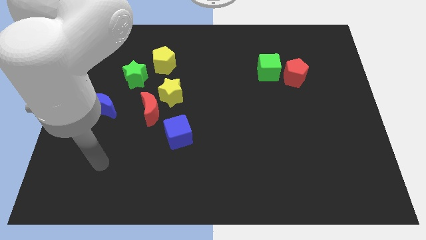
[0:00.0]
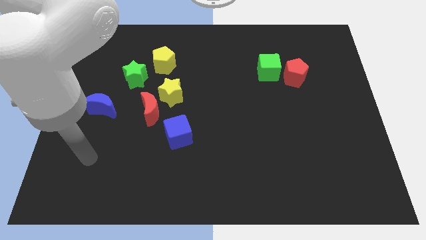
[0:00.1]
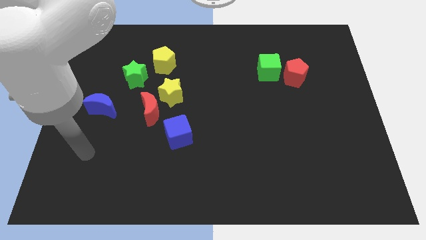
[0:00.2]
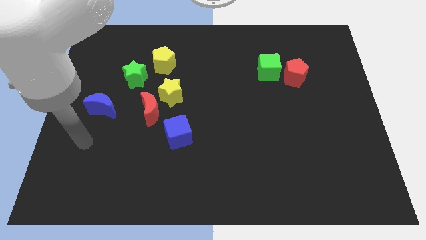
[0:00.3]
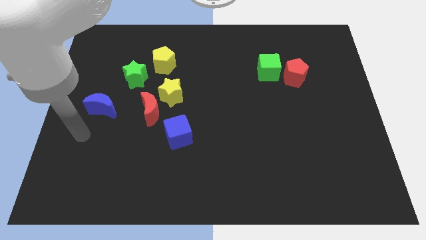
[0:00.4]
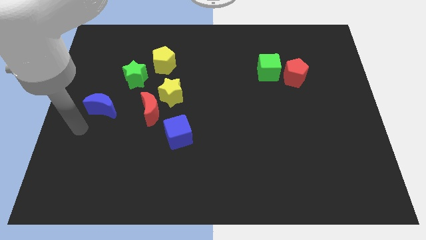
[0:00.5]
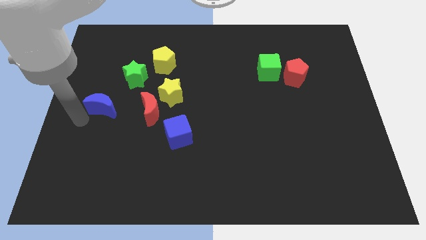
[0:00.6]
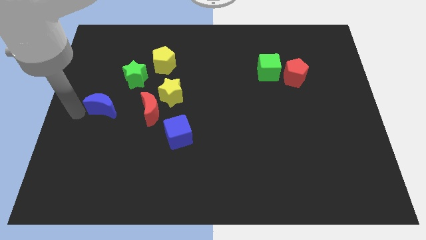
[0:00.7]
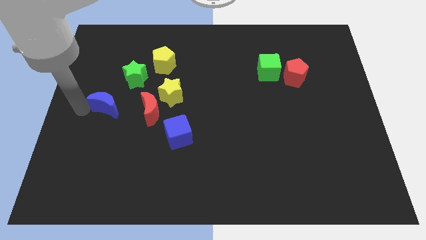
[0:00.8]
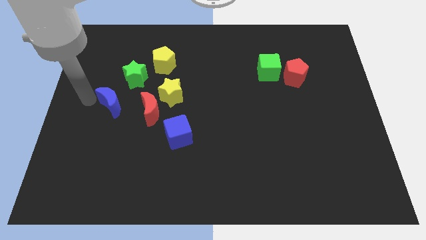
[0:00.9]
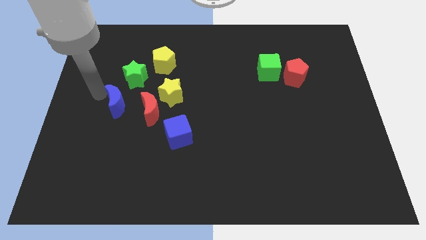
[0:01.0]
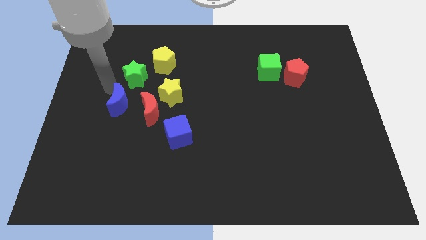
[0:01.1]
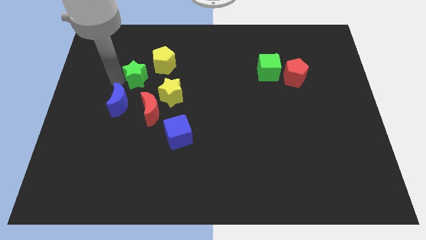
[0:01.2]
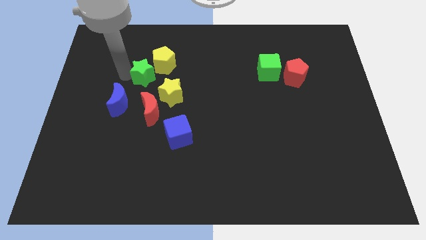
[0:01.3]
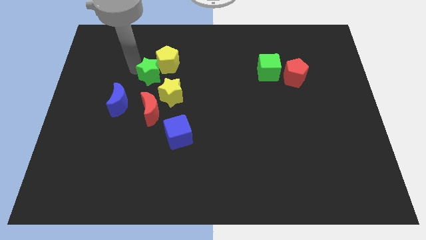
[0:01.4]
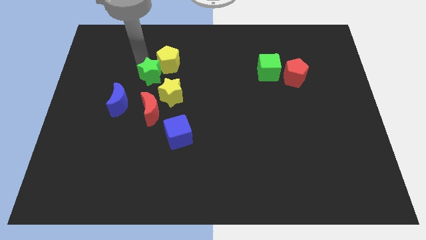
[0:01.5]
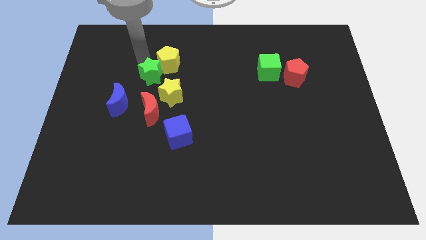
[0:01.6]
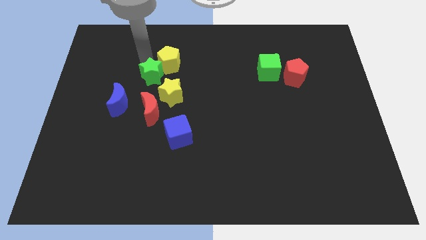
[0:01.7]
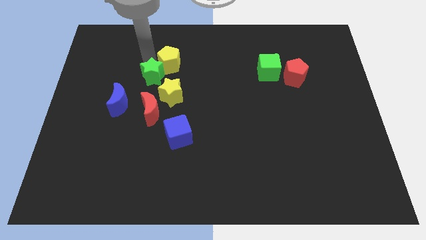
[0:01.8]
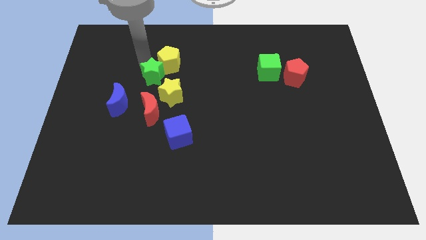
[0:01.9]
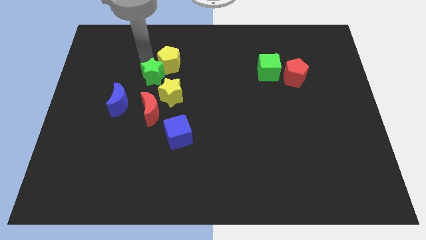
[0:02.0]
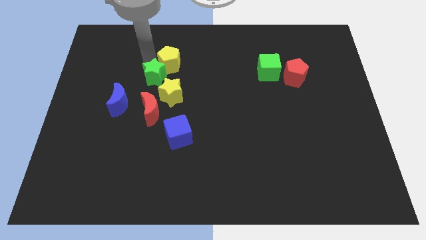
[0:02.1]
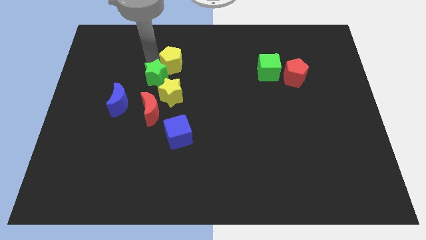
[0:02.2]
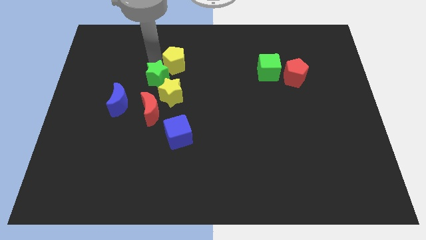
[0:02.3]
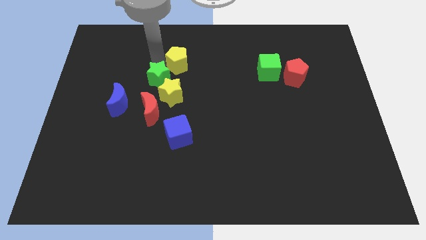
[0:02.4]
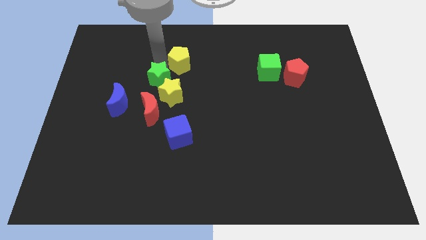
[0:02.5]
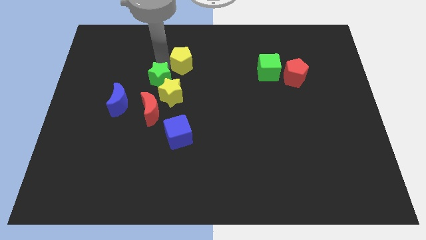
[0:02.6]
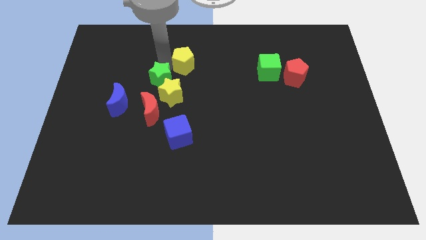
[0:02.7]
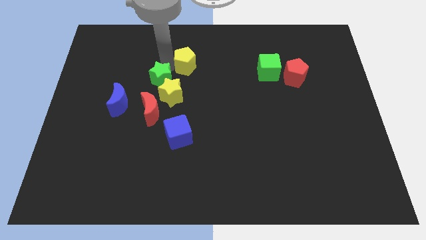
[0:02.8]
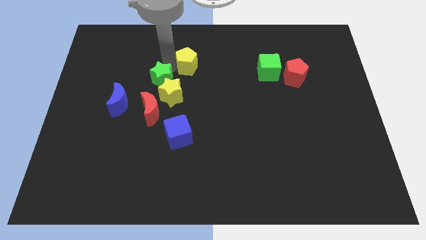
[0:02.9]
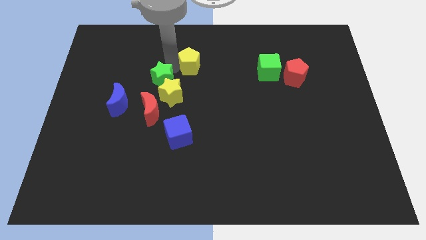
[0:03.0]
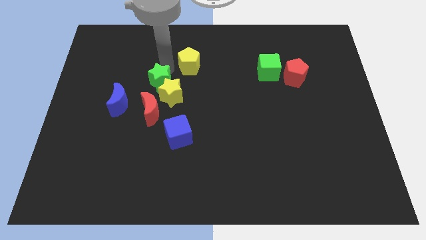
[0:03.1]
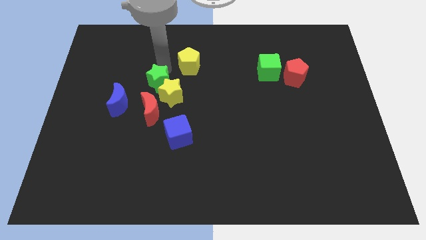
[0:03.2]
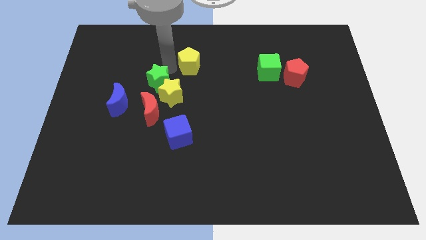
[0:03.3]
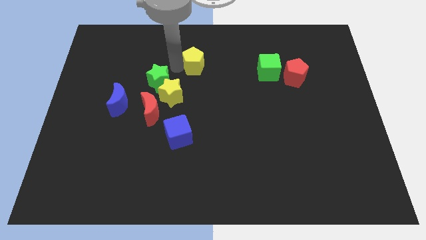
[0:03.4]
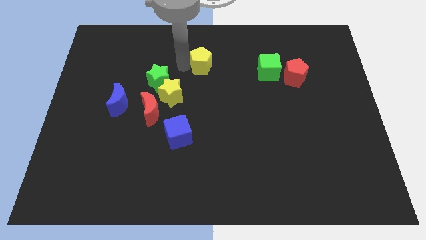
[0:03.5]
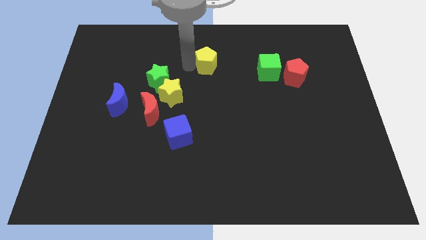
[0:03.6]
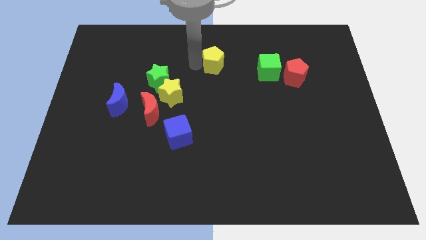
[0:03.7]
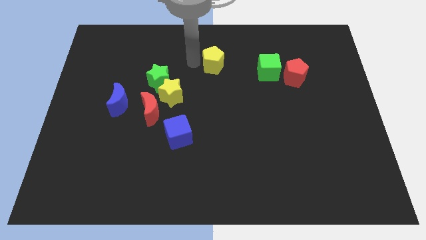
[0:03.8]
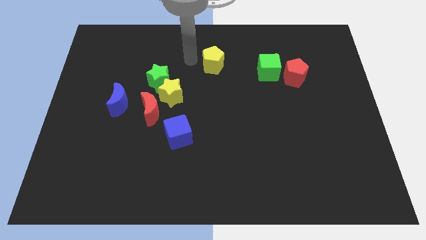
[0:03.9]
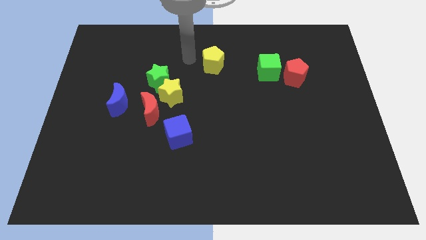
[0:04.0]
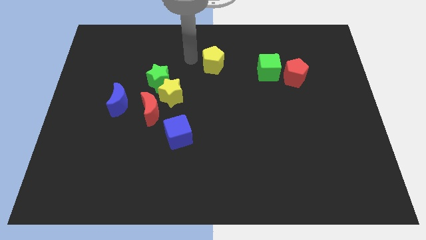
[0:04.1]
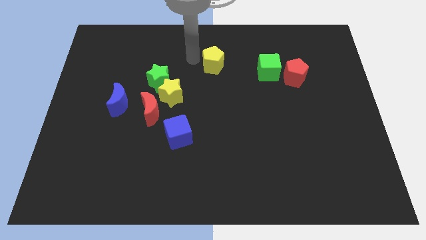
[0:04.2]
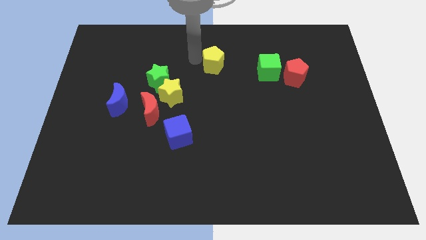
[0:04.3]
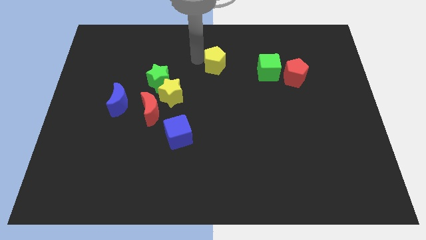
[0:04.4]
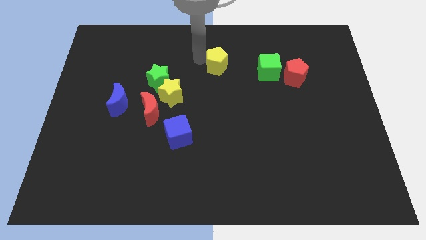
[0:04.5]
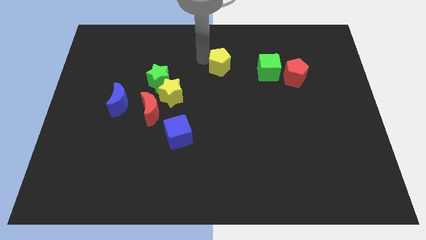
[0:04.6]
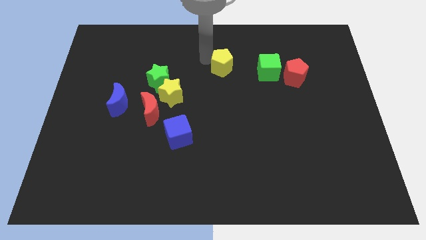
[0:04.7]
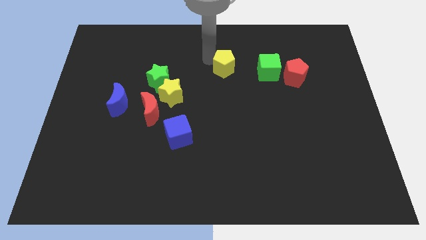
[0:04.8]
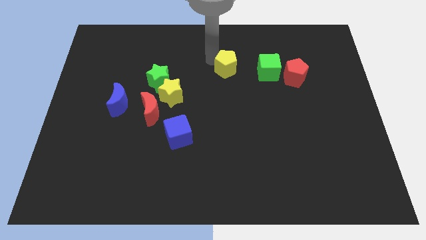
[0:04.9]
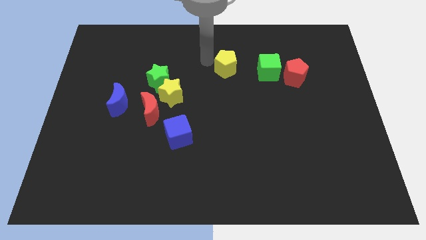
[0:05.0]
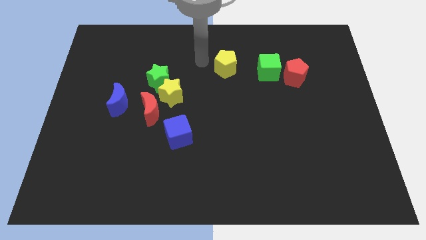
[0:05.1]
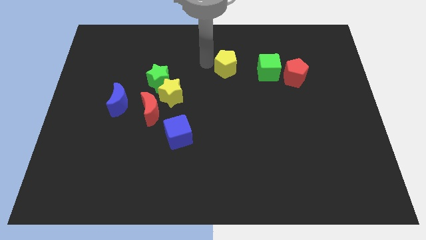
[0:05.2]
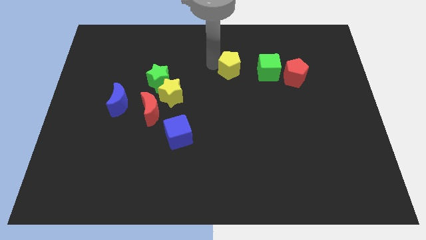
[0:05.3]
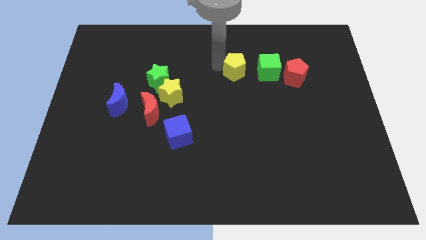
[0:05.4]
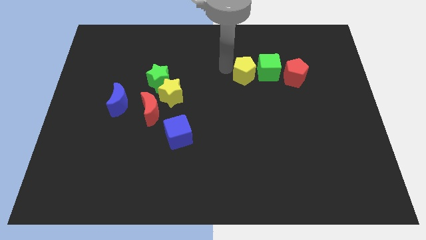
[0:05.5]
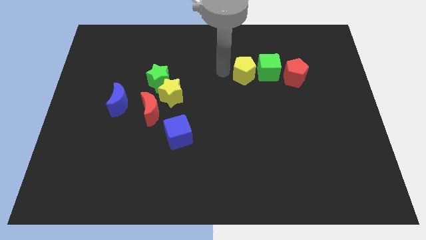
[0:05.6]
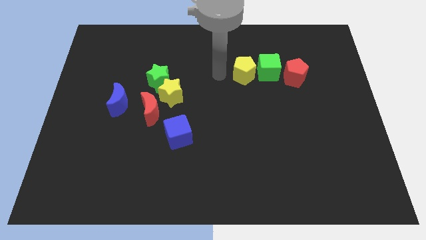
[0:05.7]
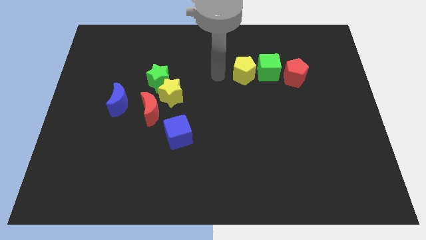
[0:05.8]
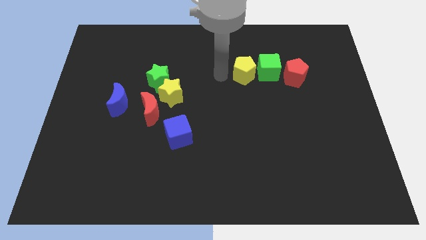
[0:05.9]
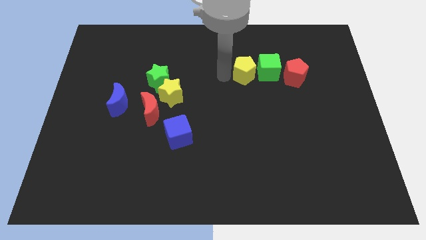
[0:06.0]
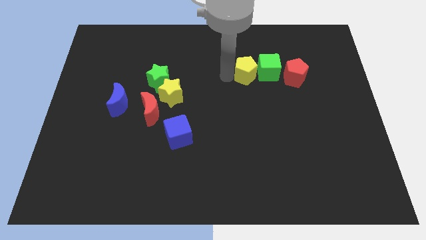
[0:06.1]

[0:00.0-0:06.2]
put the yellow pentagon next to the green cube

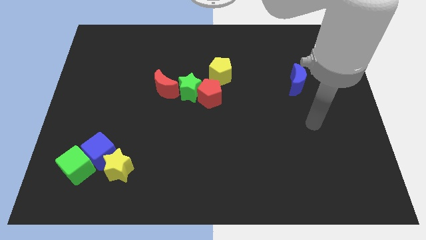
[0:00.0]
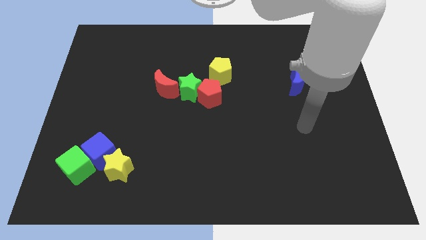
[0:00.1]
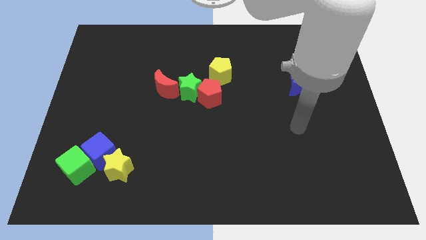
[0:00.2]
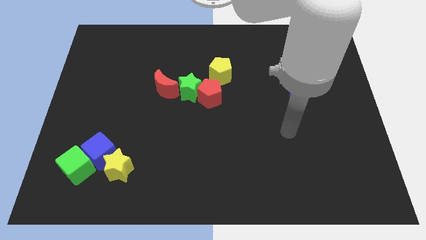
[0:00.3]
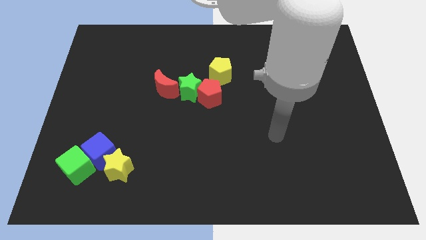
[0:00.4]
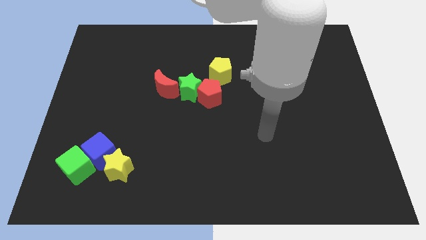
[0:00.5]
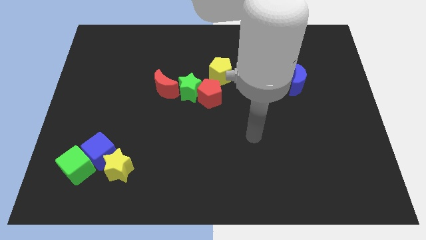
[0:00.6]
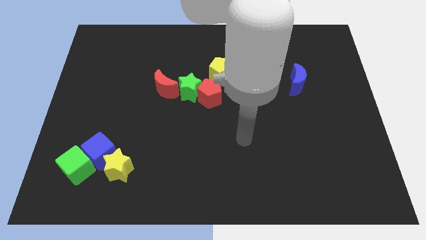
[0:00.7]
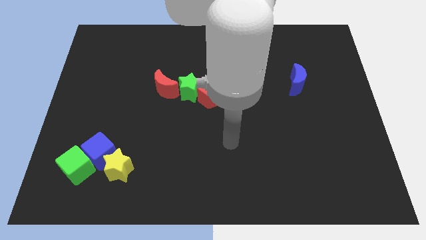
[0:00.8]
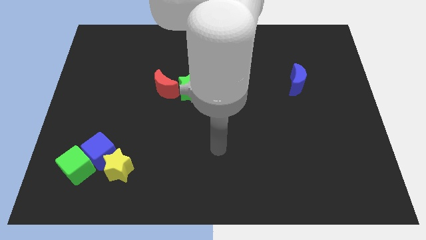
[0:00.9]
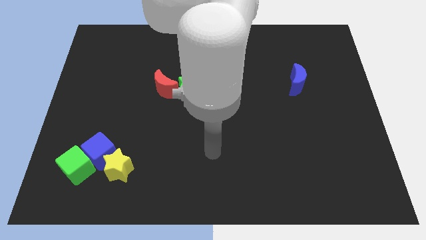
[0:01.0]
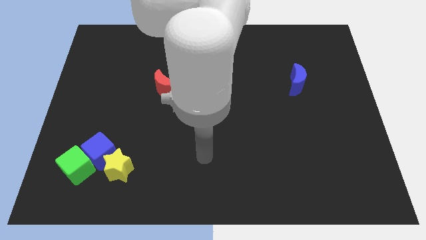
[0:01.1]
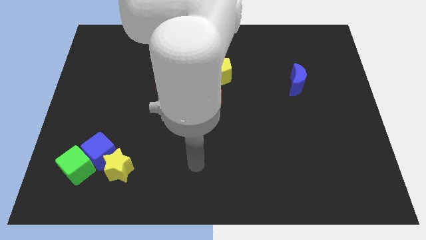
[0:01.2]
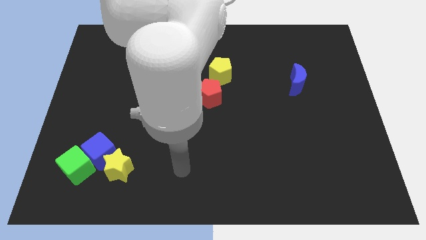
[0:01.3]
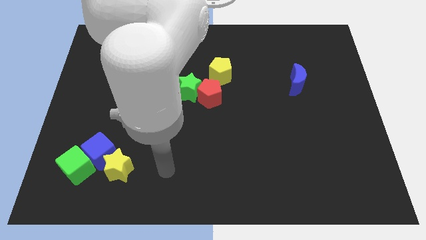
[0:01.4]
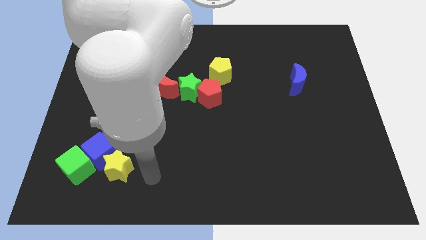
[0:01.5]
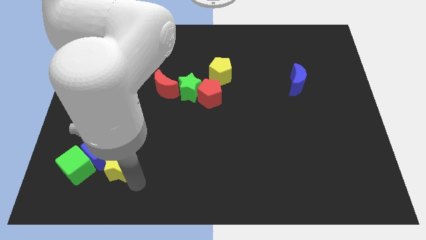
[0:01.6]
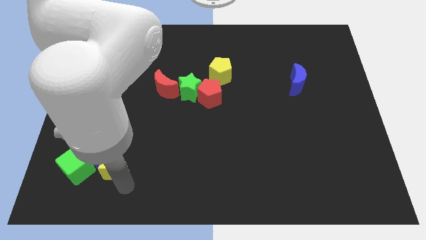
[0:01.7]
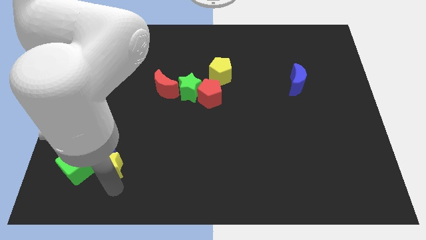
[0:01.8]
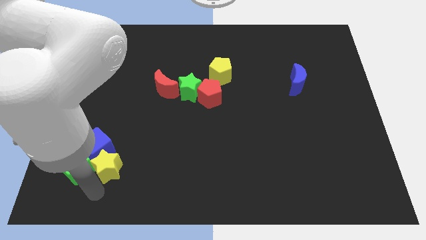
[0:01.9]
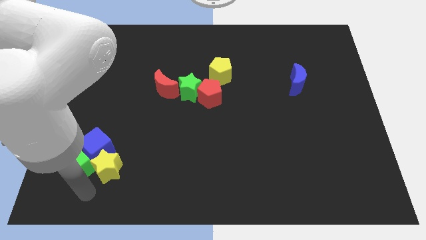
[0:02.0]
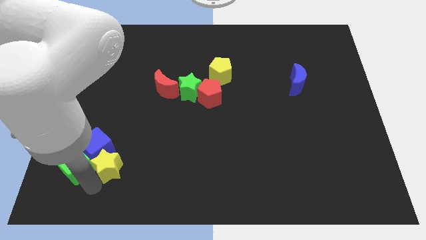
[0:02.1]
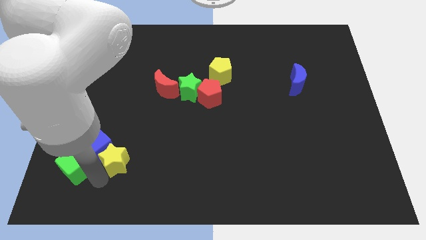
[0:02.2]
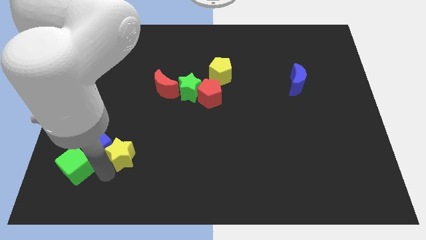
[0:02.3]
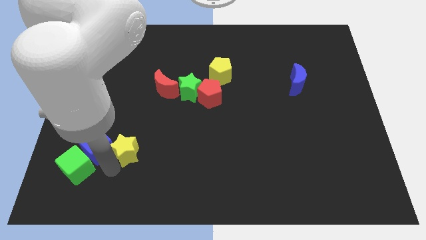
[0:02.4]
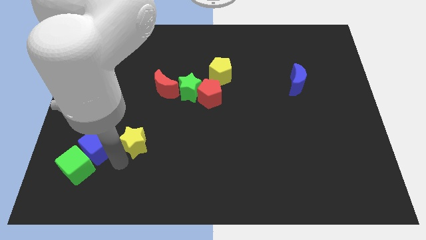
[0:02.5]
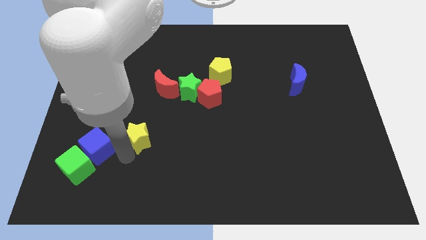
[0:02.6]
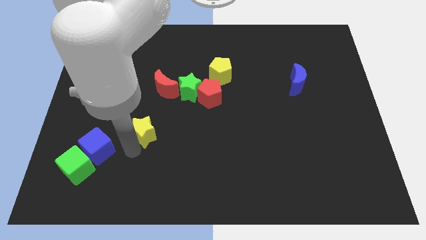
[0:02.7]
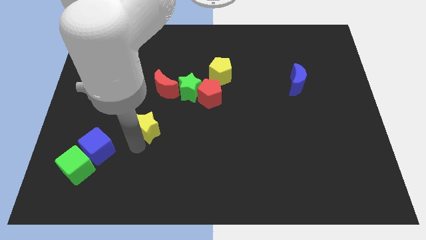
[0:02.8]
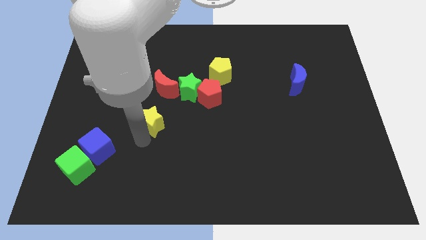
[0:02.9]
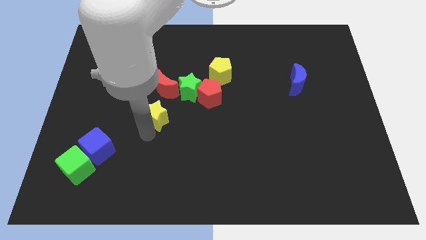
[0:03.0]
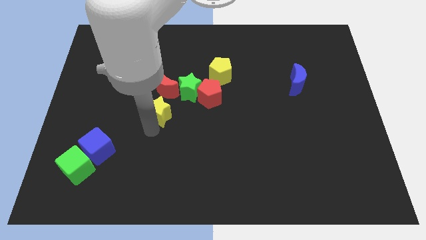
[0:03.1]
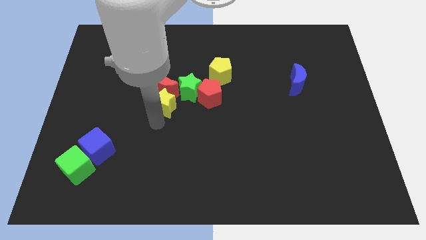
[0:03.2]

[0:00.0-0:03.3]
move the yellow star to the red moon
